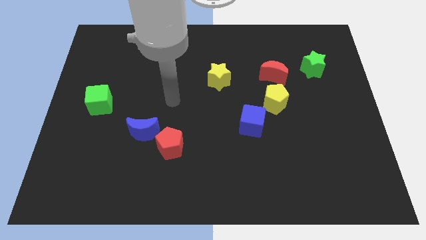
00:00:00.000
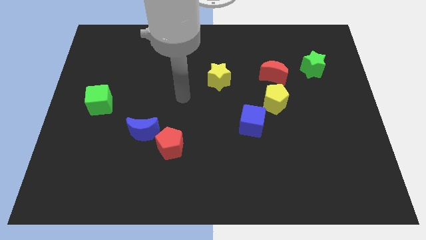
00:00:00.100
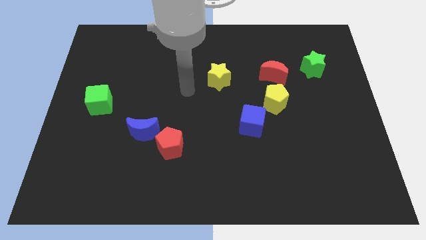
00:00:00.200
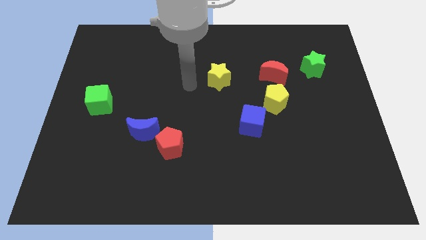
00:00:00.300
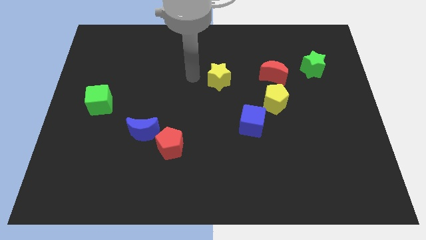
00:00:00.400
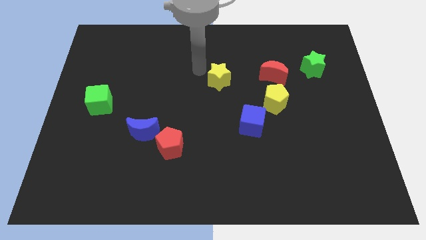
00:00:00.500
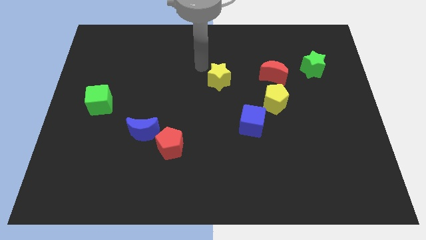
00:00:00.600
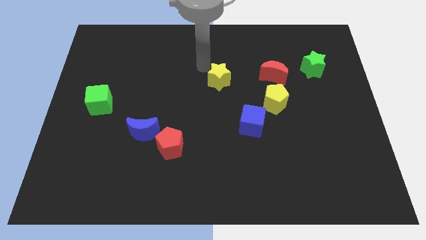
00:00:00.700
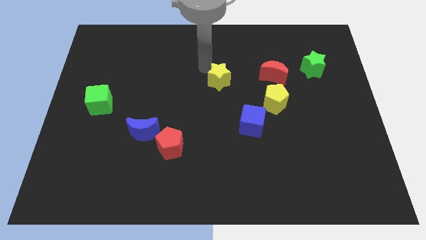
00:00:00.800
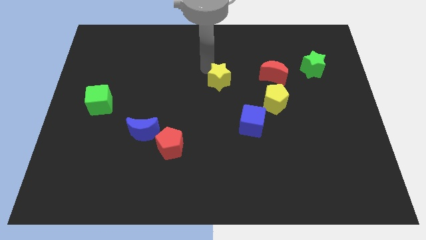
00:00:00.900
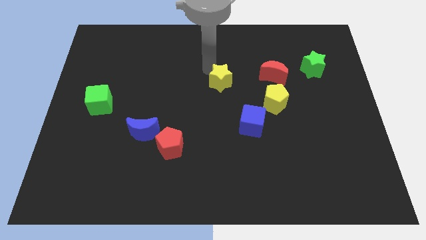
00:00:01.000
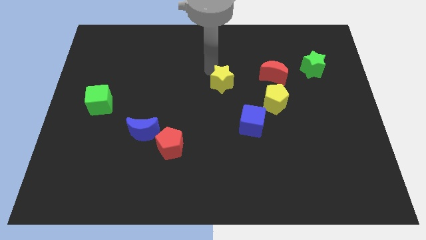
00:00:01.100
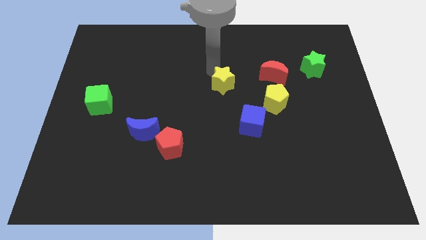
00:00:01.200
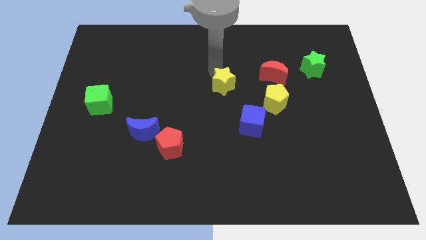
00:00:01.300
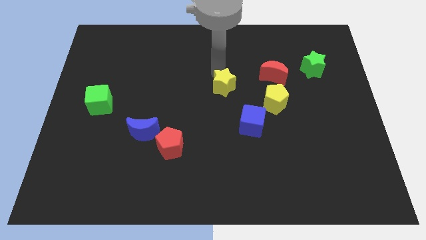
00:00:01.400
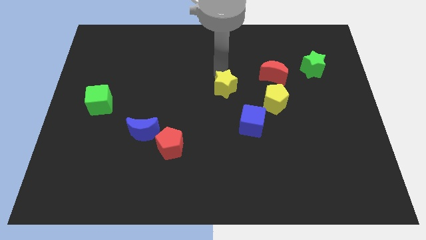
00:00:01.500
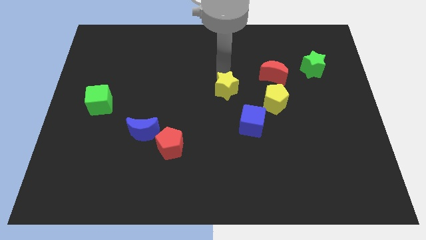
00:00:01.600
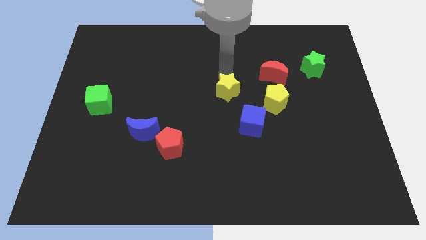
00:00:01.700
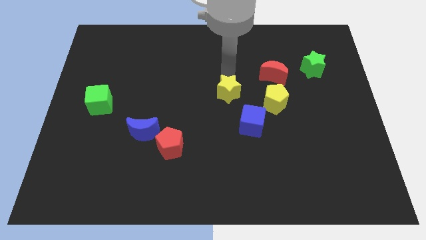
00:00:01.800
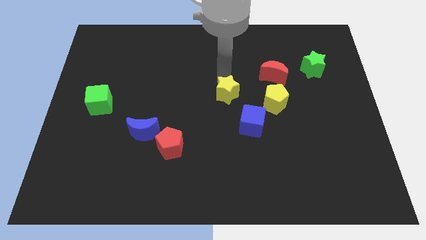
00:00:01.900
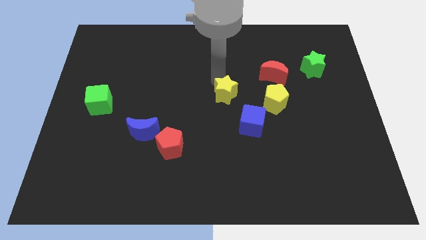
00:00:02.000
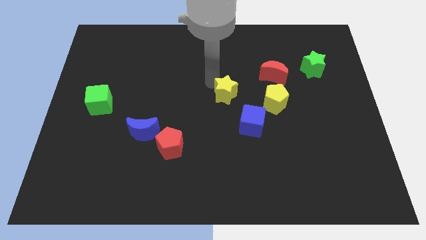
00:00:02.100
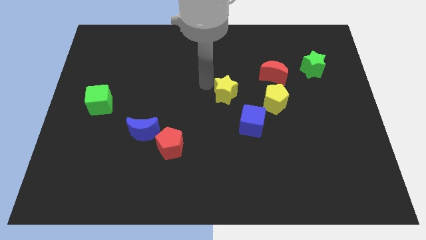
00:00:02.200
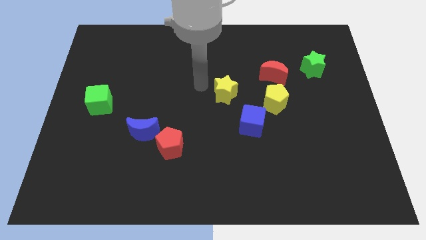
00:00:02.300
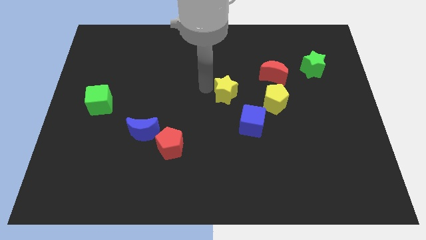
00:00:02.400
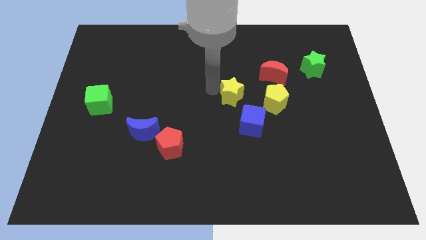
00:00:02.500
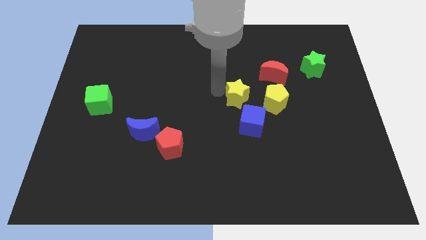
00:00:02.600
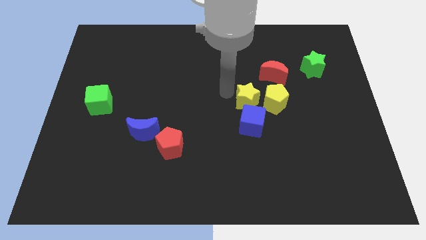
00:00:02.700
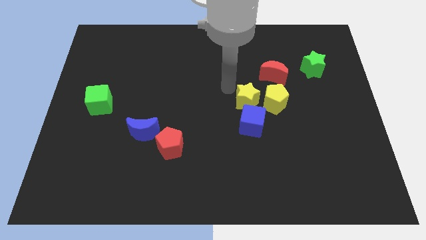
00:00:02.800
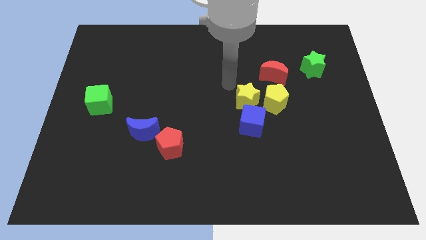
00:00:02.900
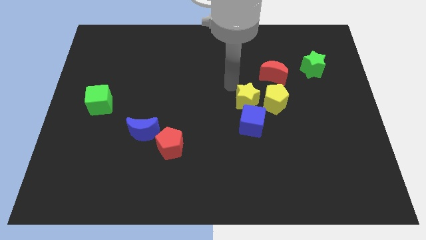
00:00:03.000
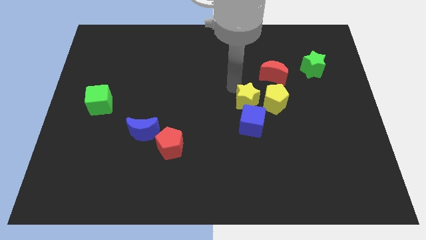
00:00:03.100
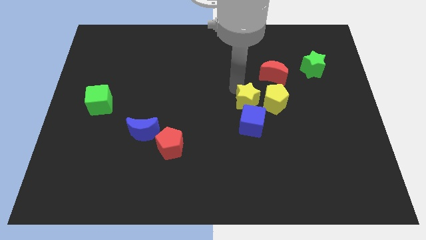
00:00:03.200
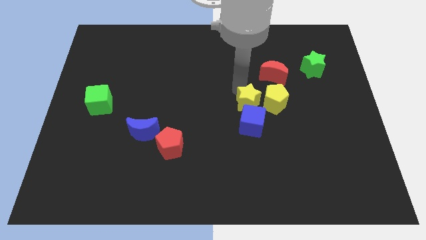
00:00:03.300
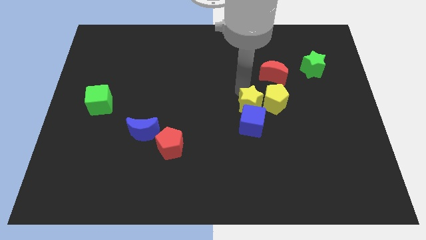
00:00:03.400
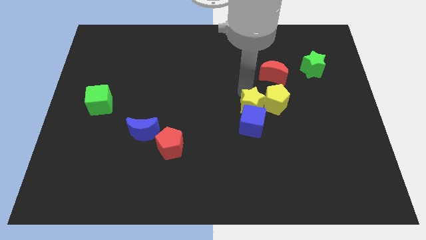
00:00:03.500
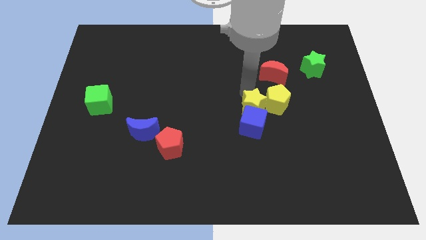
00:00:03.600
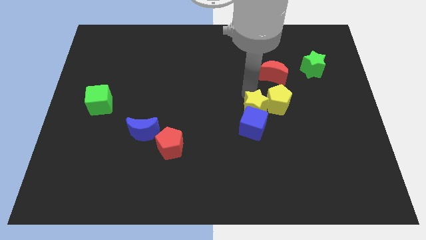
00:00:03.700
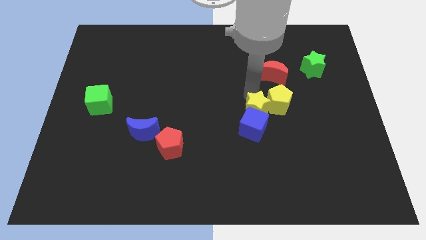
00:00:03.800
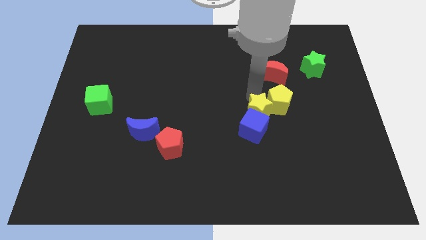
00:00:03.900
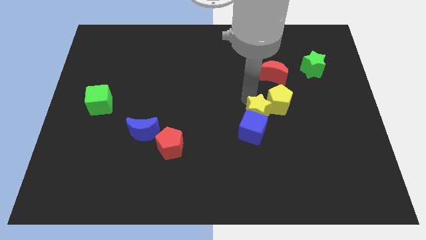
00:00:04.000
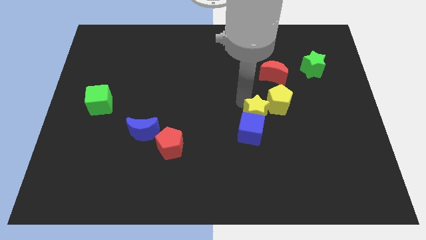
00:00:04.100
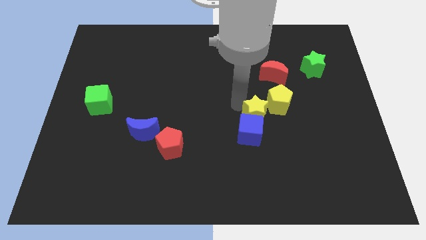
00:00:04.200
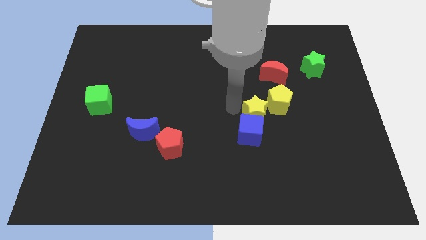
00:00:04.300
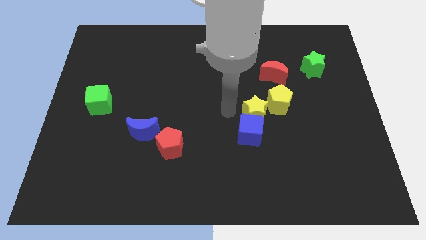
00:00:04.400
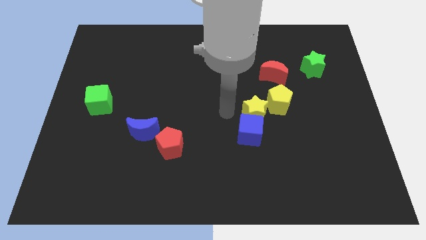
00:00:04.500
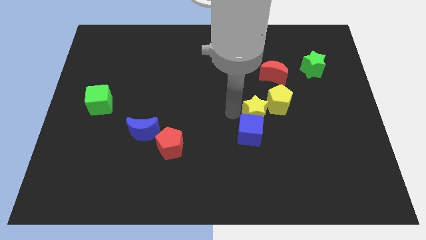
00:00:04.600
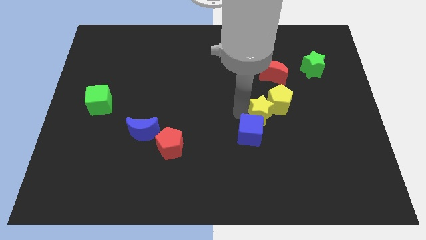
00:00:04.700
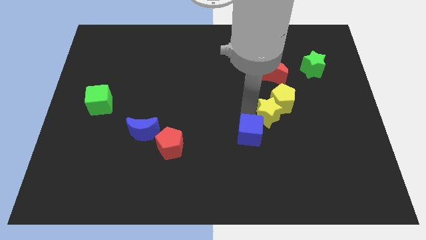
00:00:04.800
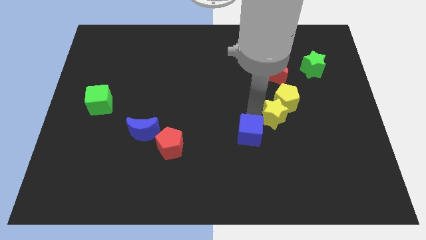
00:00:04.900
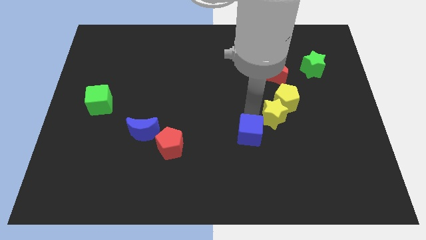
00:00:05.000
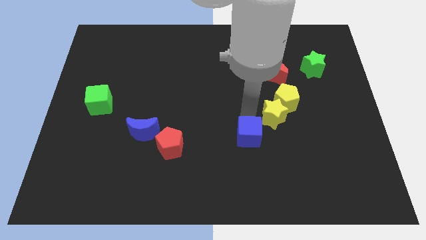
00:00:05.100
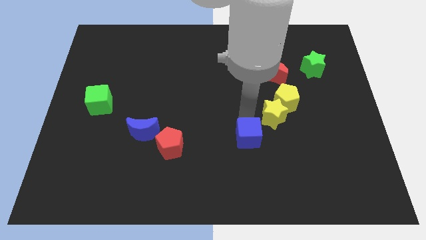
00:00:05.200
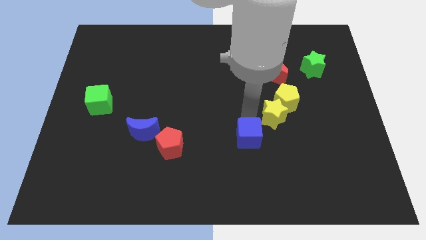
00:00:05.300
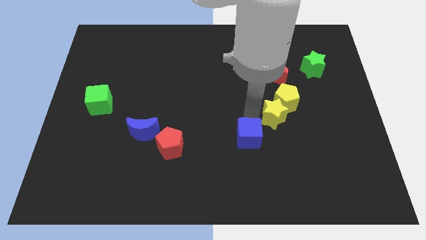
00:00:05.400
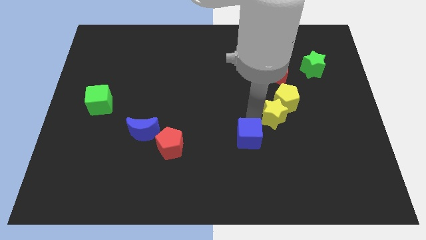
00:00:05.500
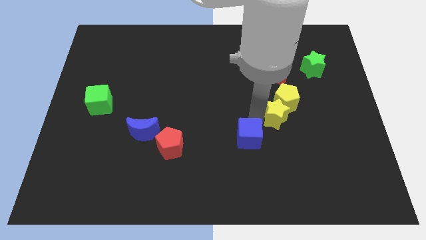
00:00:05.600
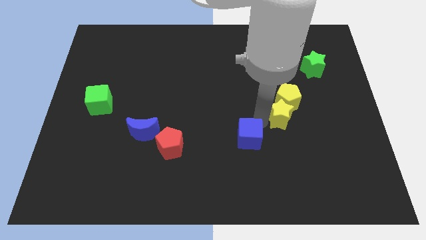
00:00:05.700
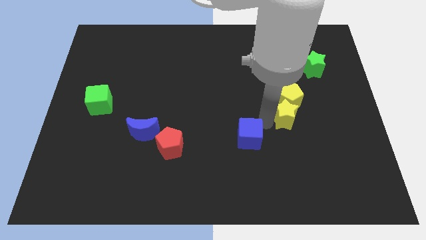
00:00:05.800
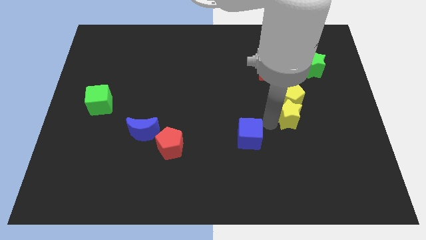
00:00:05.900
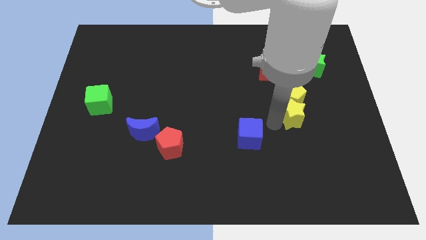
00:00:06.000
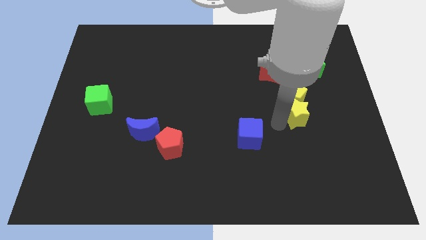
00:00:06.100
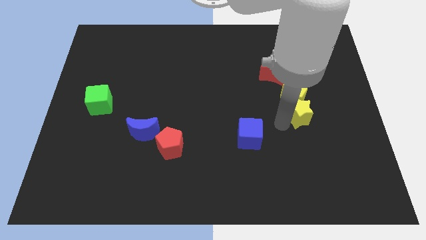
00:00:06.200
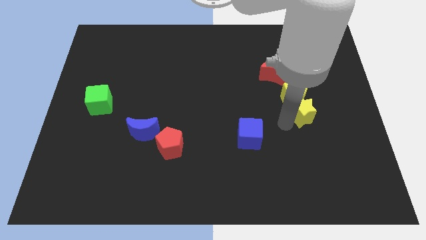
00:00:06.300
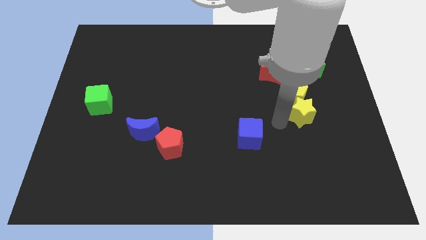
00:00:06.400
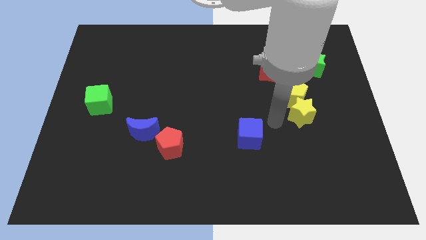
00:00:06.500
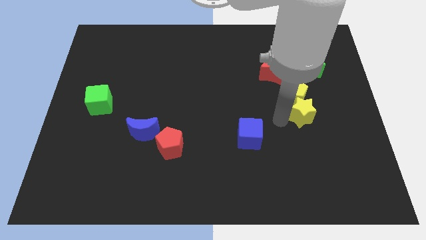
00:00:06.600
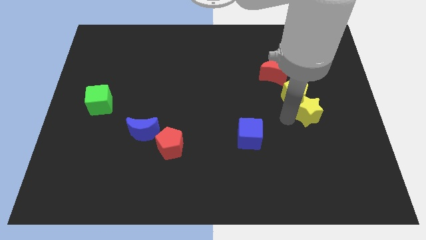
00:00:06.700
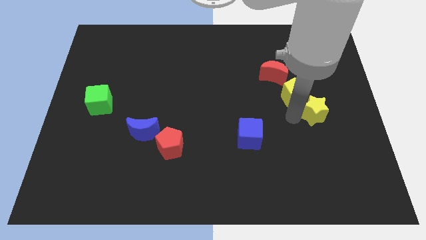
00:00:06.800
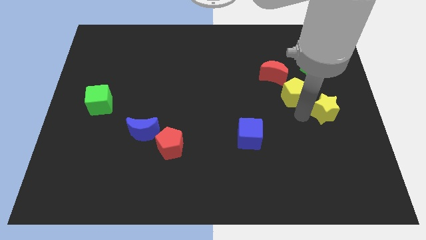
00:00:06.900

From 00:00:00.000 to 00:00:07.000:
put the yellow star to the right side of the board
